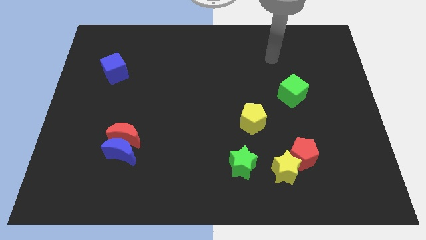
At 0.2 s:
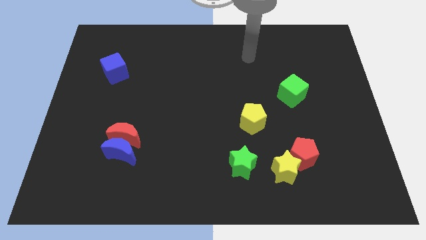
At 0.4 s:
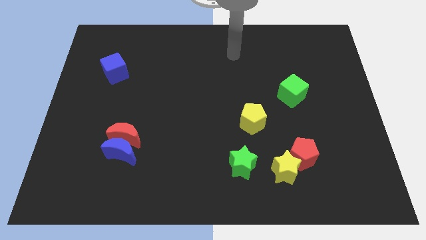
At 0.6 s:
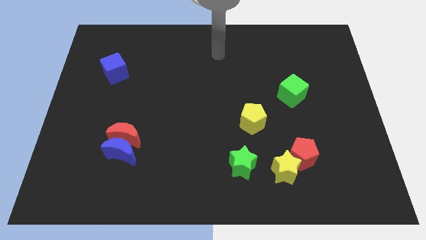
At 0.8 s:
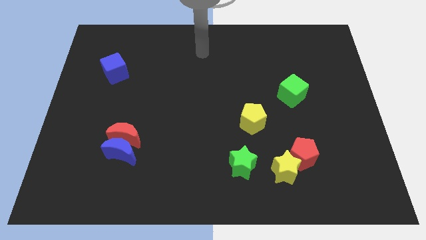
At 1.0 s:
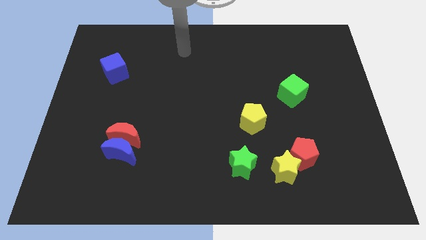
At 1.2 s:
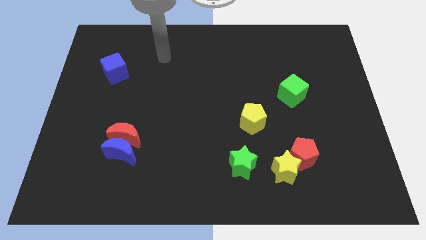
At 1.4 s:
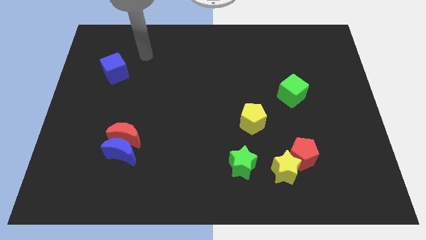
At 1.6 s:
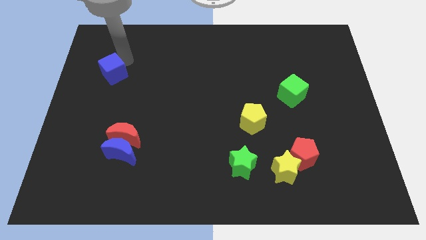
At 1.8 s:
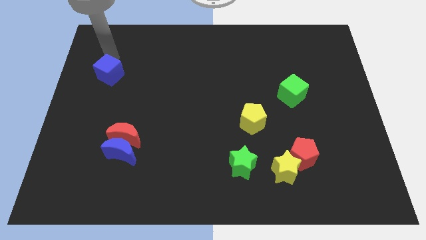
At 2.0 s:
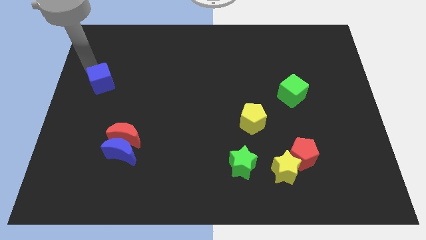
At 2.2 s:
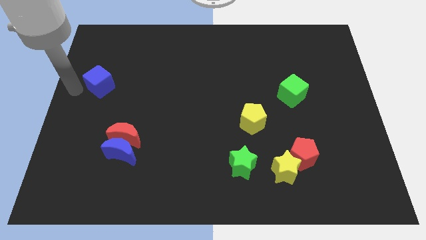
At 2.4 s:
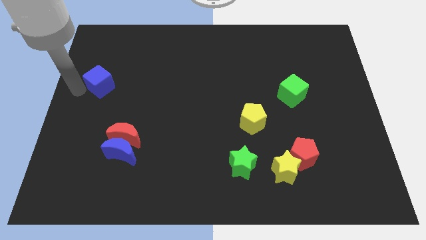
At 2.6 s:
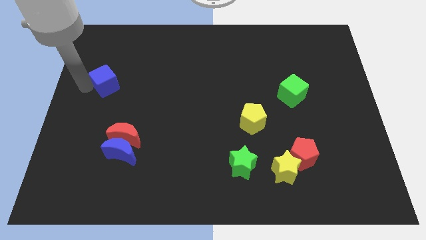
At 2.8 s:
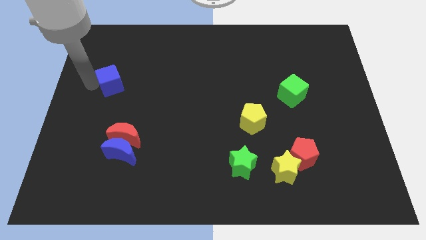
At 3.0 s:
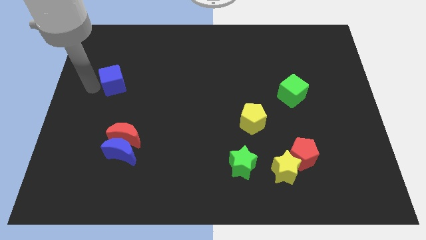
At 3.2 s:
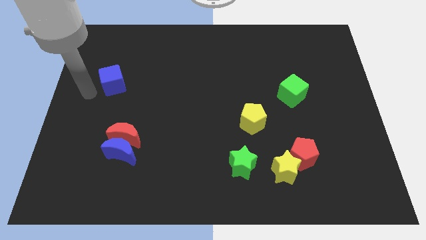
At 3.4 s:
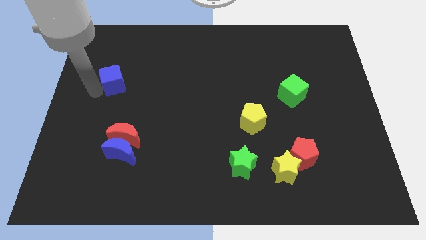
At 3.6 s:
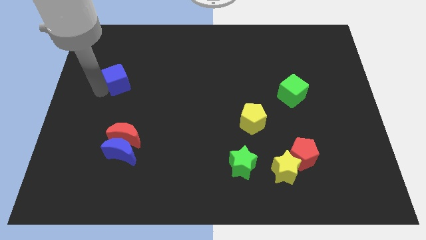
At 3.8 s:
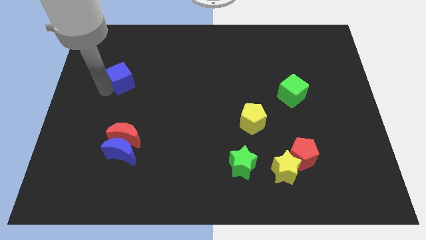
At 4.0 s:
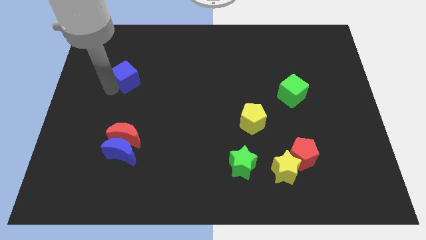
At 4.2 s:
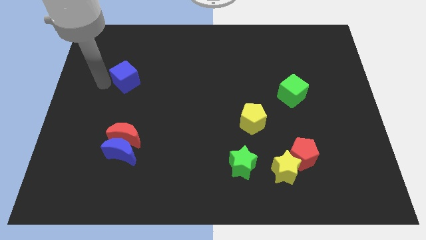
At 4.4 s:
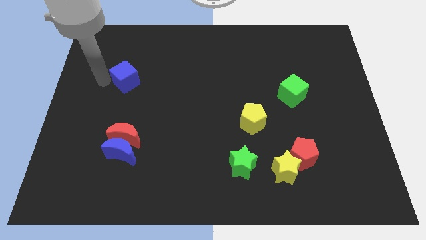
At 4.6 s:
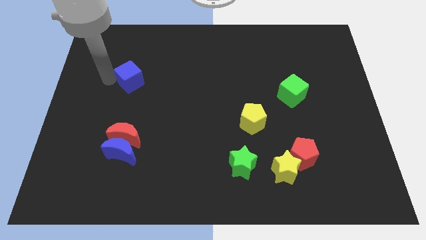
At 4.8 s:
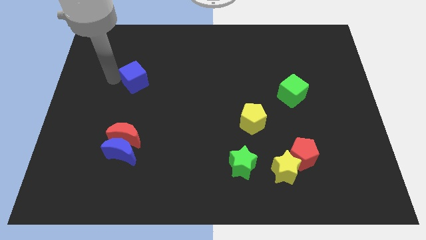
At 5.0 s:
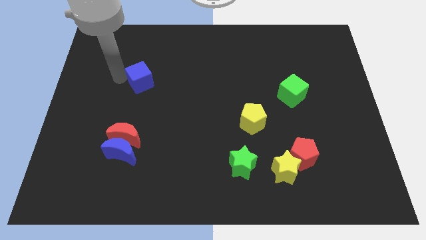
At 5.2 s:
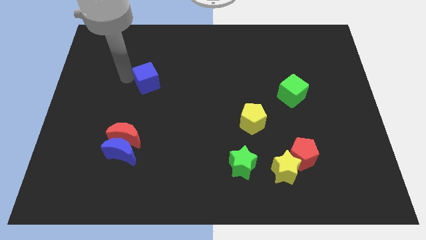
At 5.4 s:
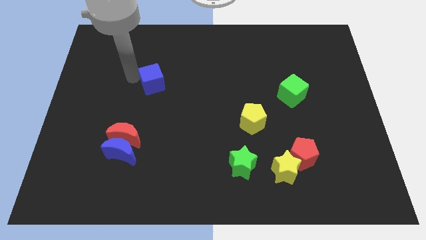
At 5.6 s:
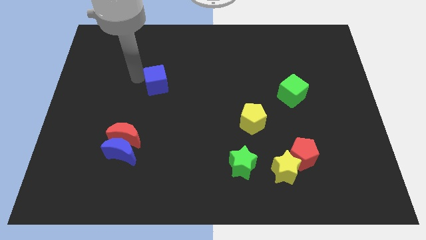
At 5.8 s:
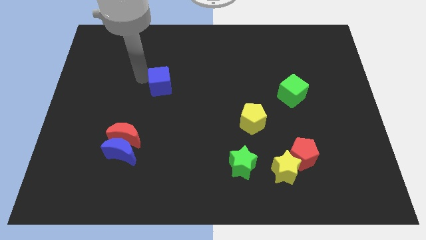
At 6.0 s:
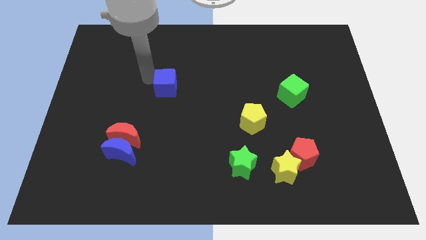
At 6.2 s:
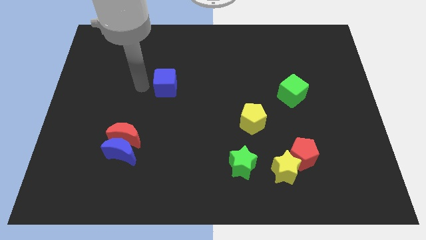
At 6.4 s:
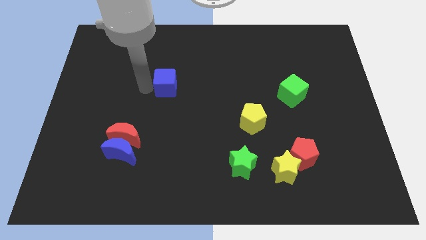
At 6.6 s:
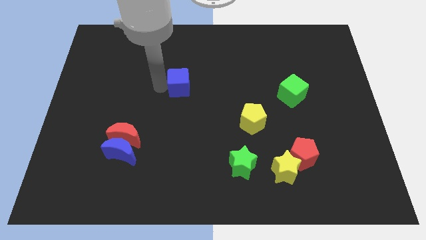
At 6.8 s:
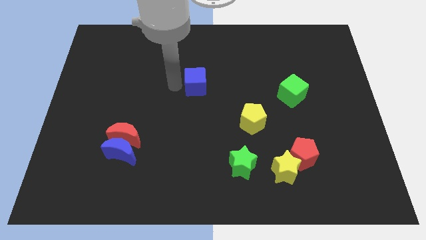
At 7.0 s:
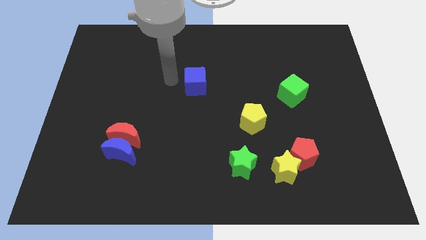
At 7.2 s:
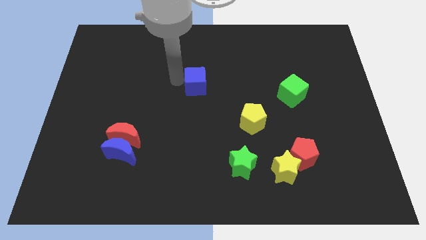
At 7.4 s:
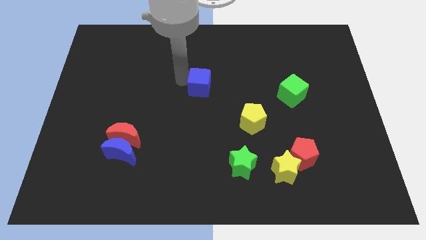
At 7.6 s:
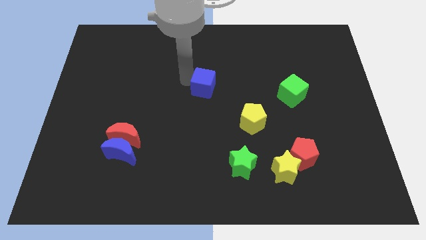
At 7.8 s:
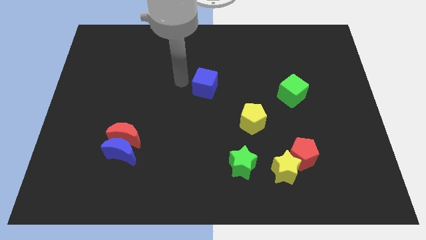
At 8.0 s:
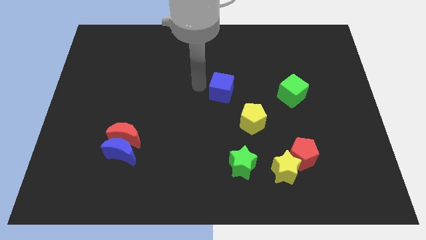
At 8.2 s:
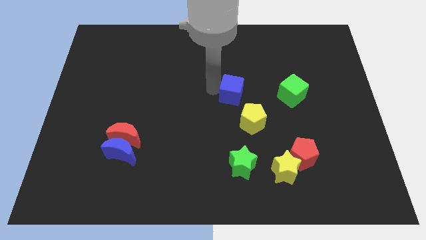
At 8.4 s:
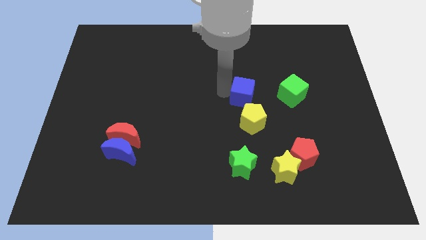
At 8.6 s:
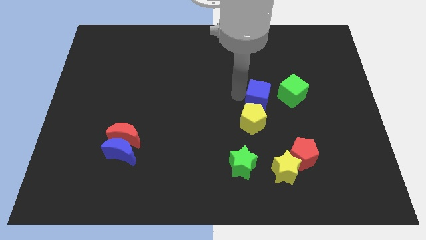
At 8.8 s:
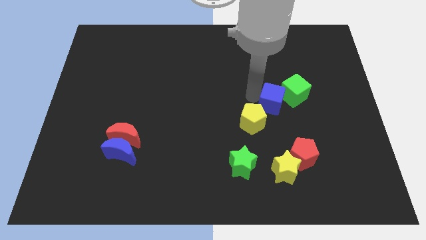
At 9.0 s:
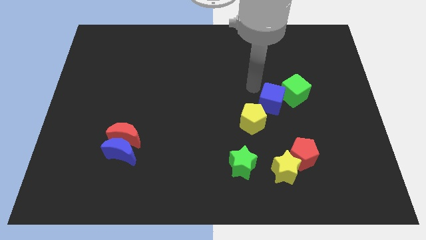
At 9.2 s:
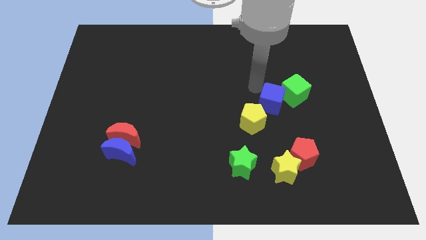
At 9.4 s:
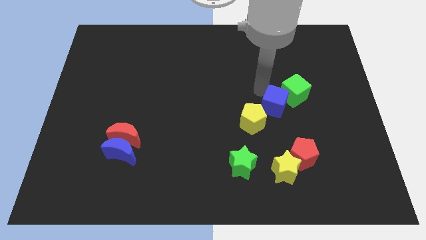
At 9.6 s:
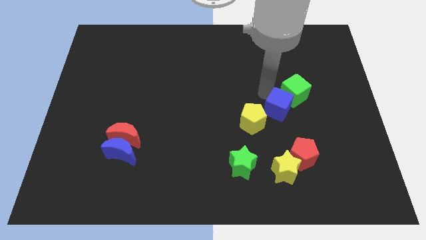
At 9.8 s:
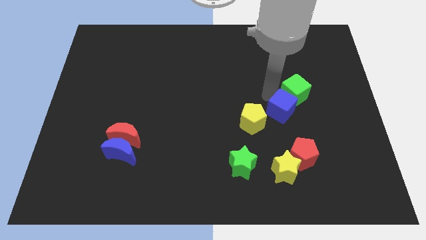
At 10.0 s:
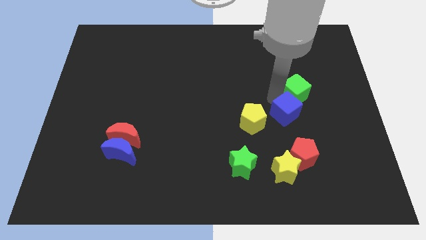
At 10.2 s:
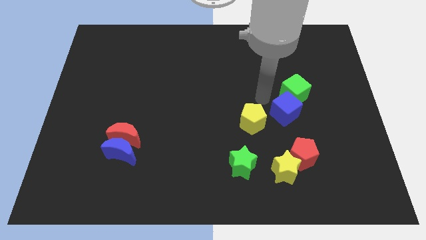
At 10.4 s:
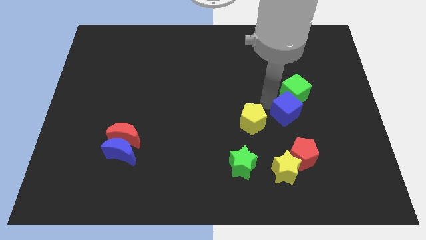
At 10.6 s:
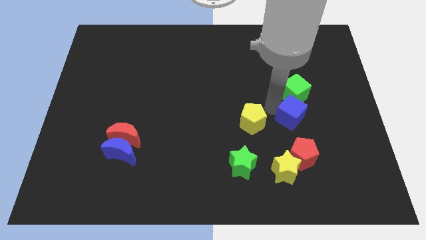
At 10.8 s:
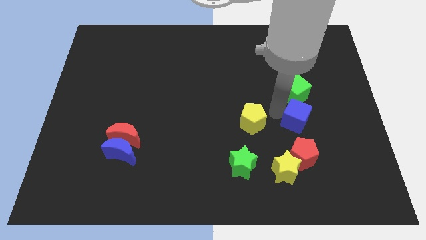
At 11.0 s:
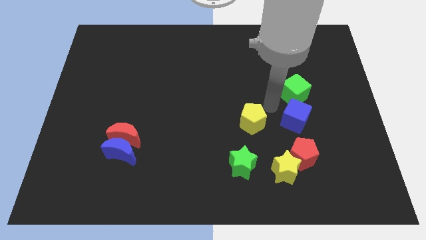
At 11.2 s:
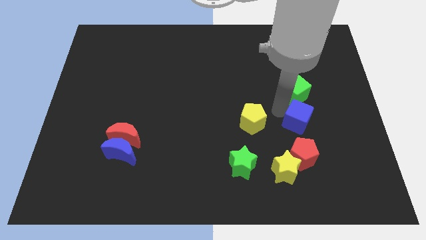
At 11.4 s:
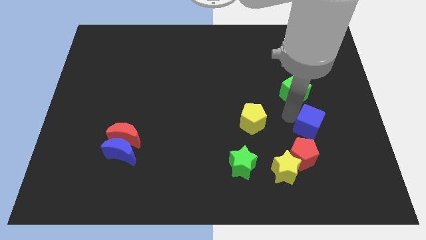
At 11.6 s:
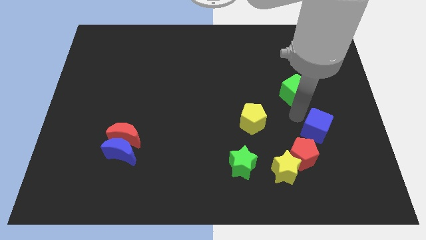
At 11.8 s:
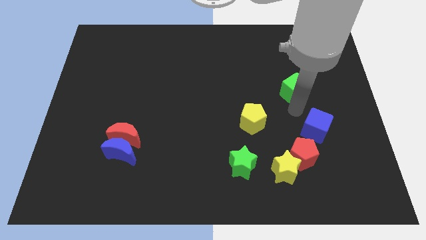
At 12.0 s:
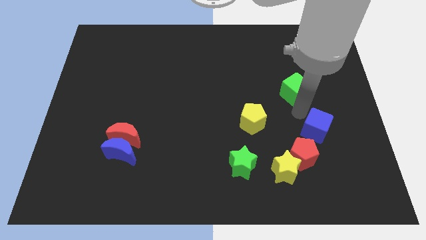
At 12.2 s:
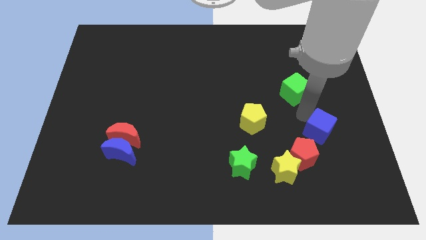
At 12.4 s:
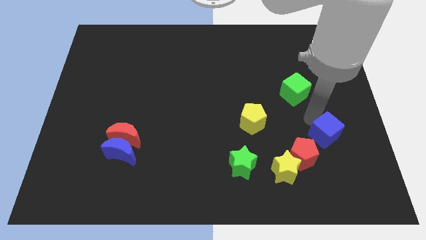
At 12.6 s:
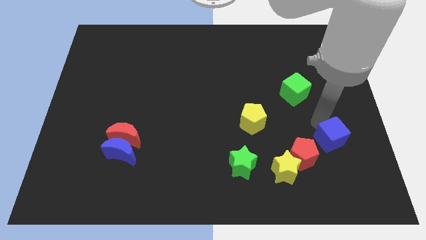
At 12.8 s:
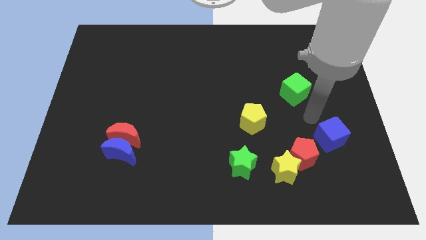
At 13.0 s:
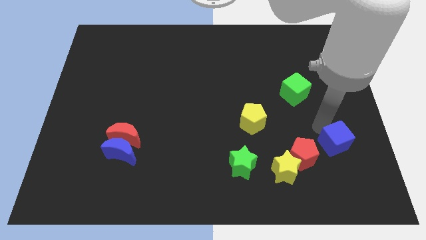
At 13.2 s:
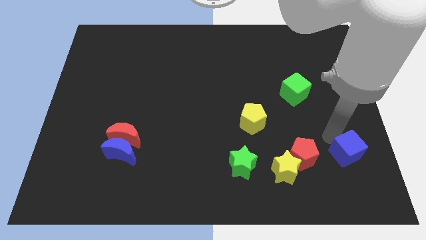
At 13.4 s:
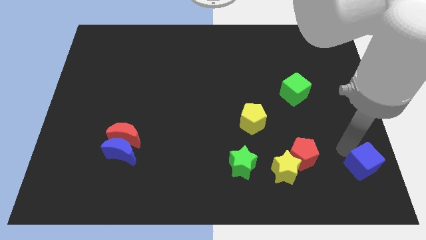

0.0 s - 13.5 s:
put the blue cube to the bottom right corner
